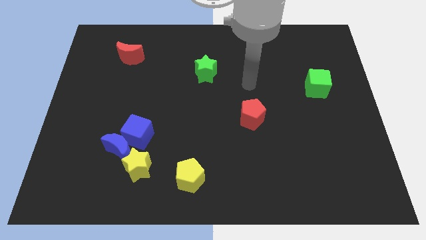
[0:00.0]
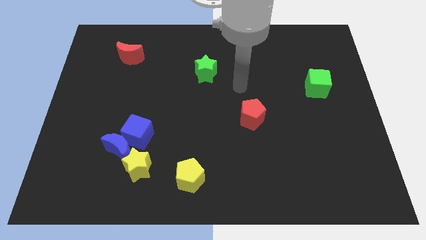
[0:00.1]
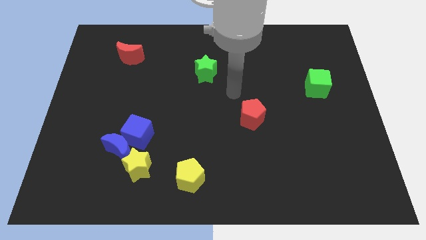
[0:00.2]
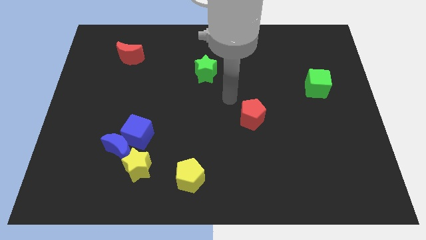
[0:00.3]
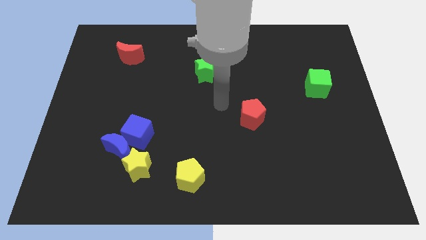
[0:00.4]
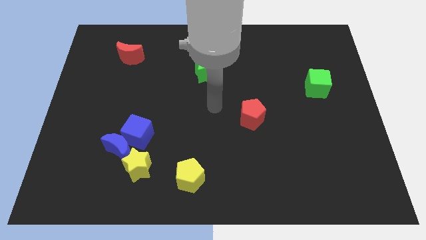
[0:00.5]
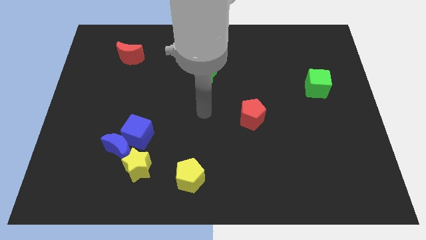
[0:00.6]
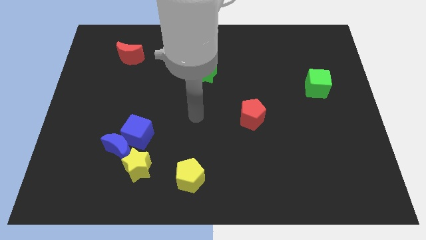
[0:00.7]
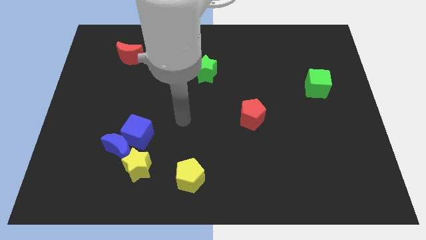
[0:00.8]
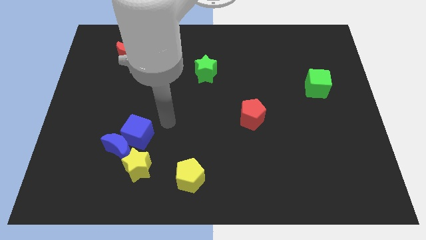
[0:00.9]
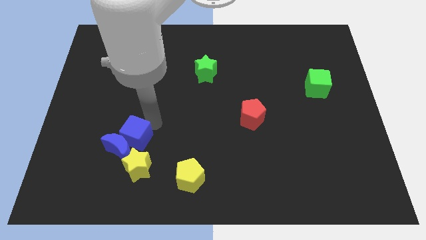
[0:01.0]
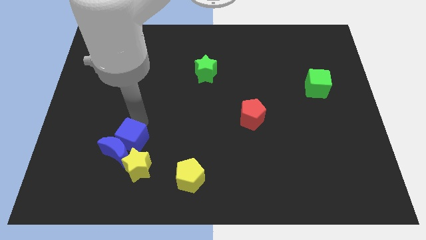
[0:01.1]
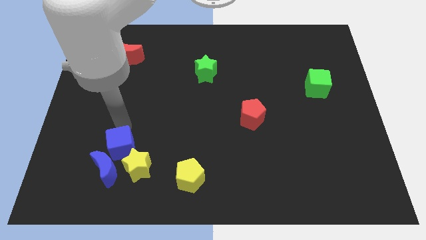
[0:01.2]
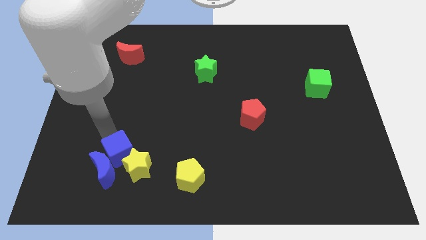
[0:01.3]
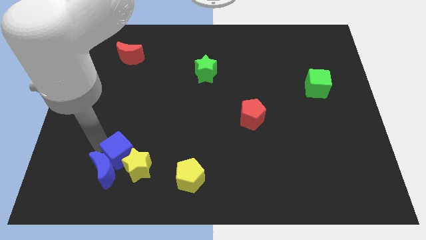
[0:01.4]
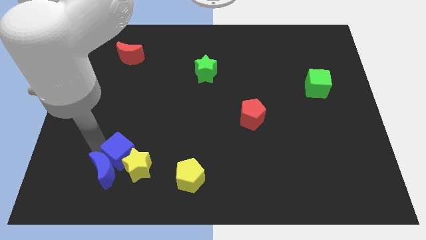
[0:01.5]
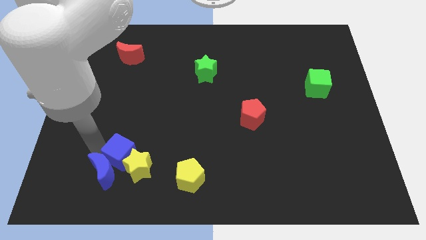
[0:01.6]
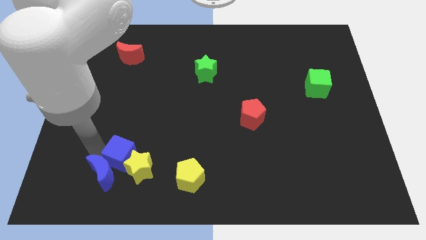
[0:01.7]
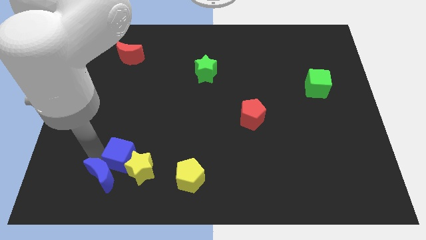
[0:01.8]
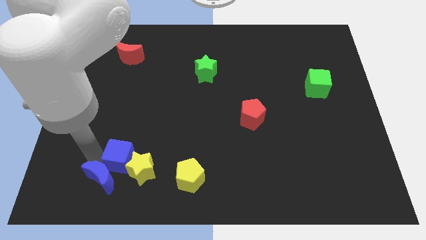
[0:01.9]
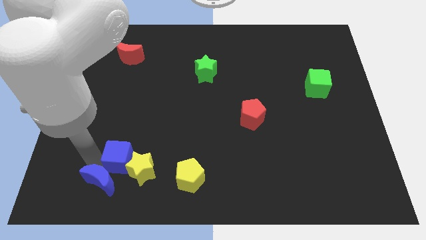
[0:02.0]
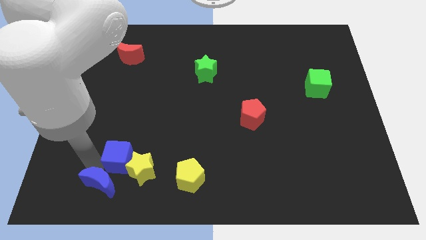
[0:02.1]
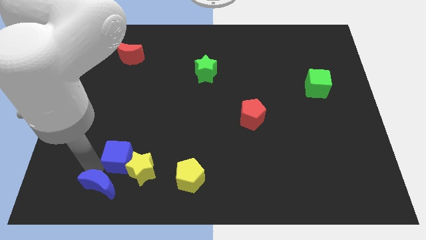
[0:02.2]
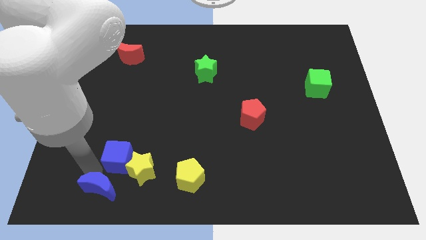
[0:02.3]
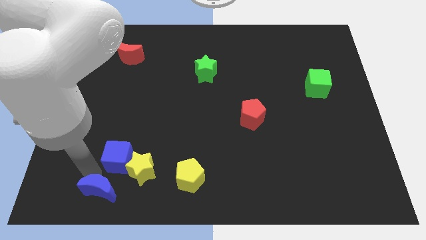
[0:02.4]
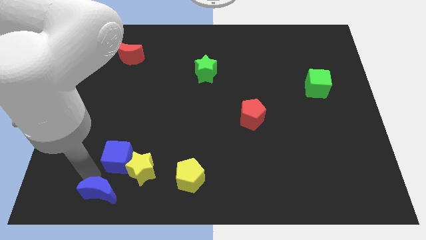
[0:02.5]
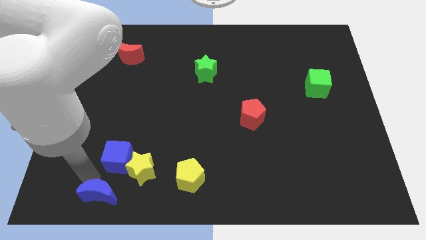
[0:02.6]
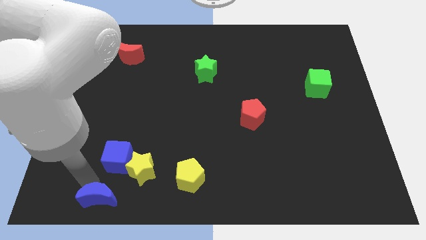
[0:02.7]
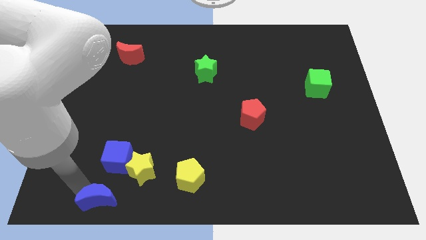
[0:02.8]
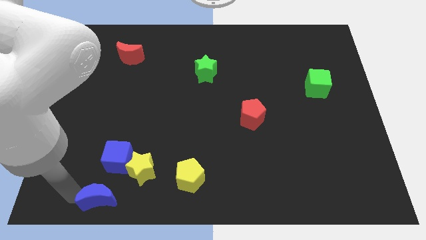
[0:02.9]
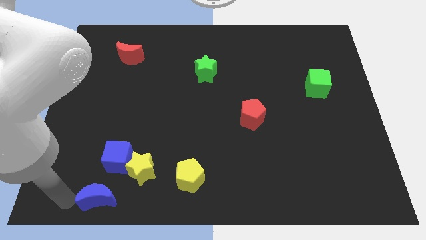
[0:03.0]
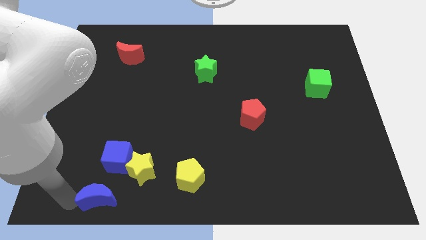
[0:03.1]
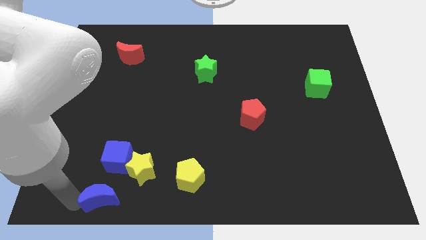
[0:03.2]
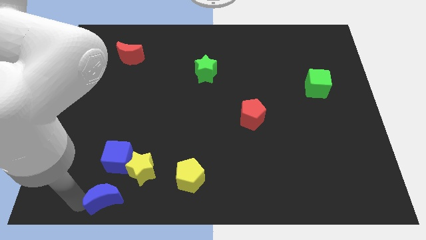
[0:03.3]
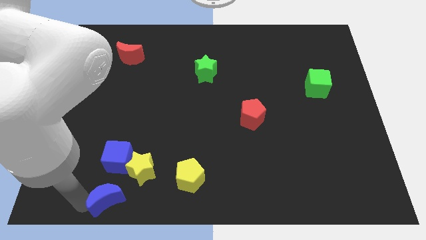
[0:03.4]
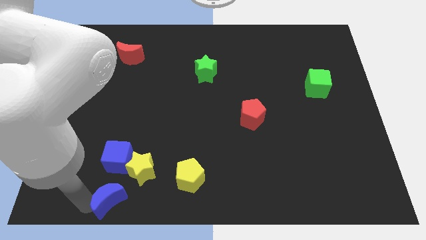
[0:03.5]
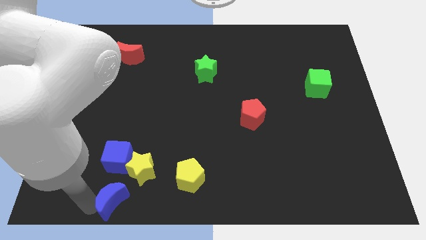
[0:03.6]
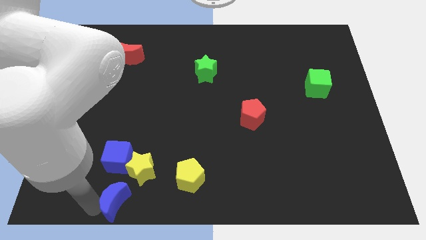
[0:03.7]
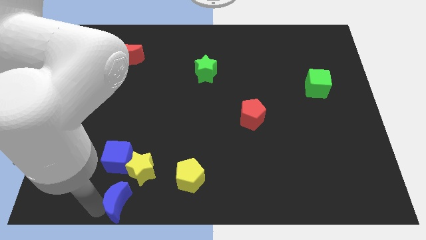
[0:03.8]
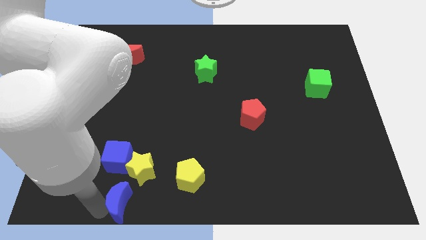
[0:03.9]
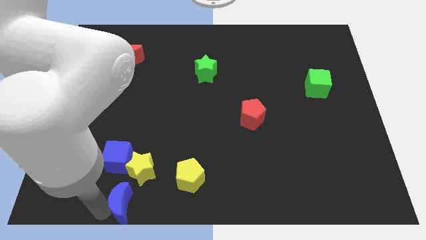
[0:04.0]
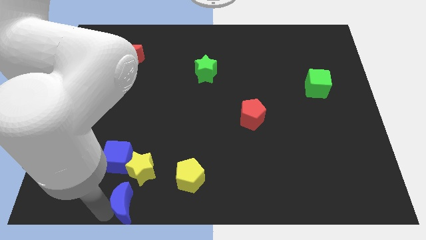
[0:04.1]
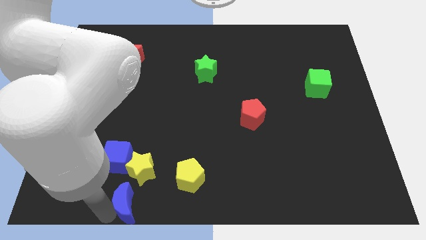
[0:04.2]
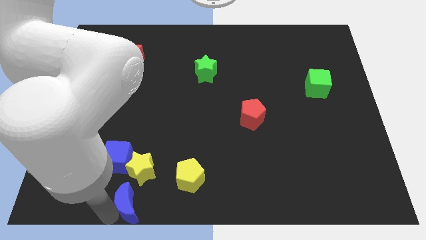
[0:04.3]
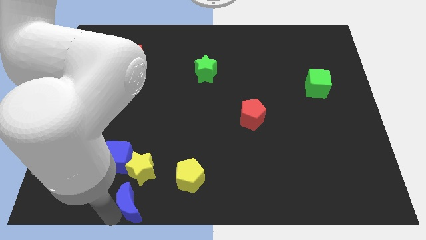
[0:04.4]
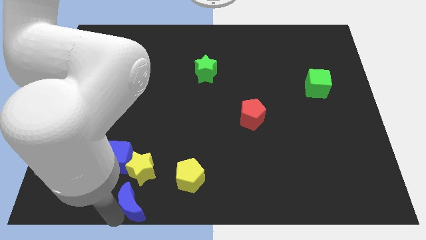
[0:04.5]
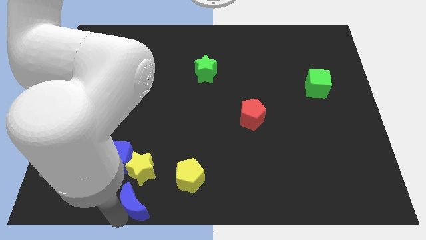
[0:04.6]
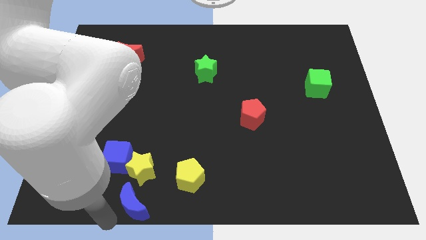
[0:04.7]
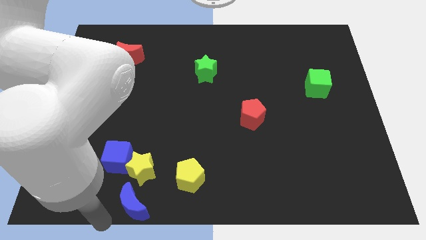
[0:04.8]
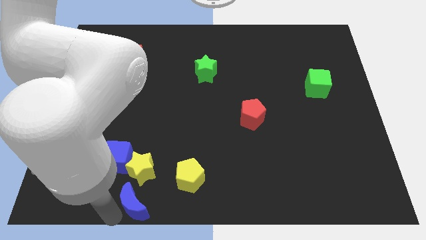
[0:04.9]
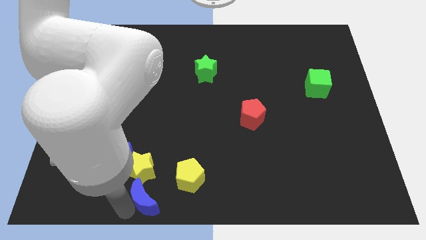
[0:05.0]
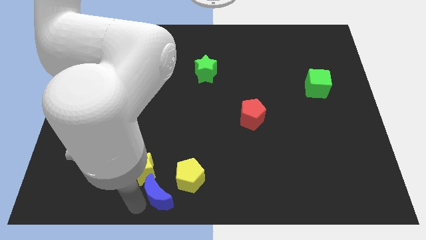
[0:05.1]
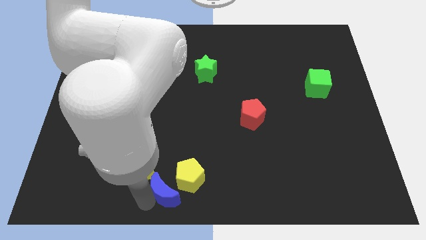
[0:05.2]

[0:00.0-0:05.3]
slide the blue moon close to the yellow pentagon
